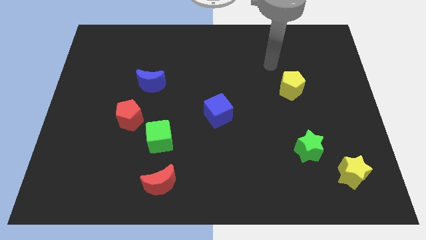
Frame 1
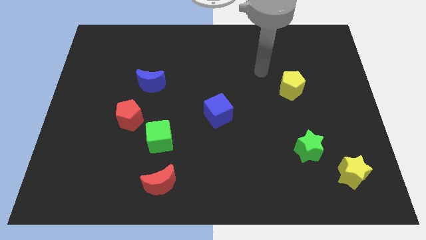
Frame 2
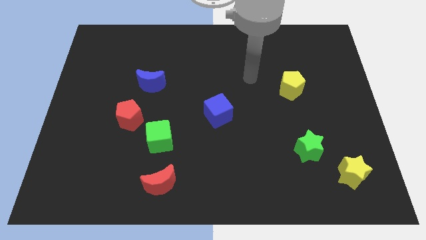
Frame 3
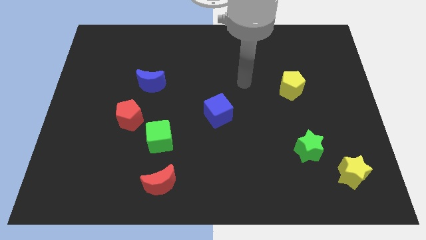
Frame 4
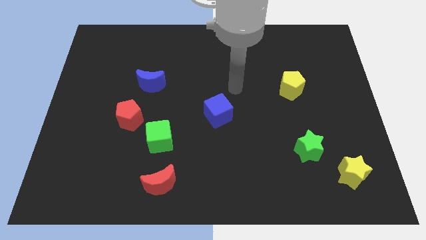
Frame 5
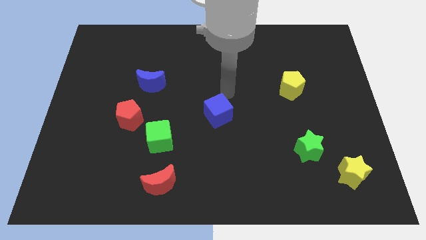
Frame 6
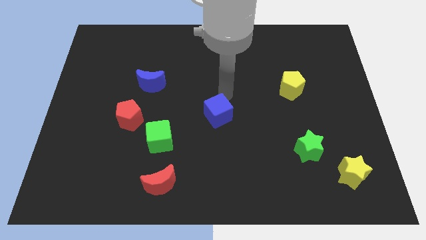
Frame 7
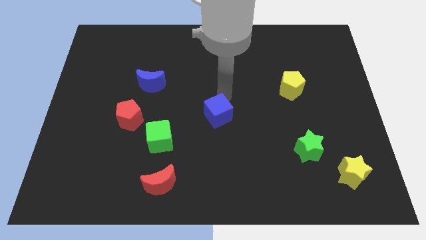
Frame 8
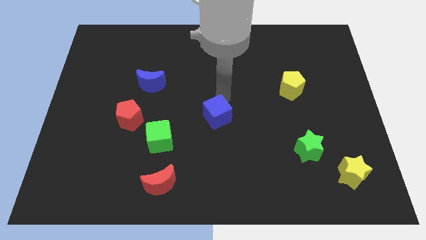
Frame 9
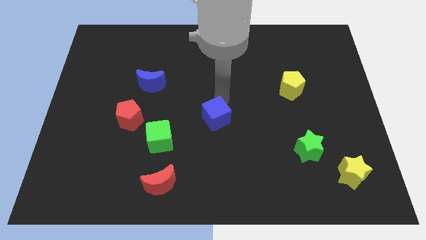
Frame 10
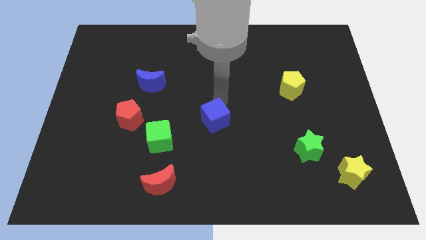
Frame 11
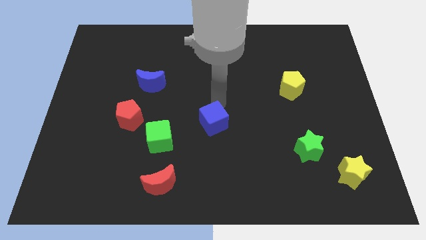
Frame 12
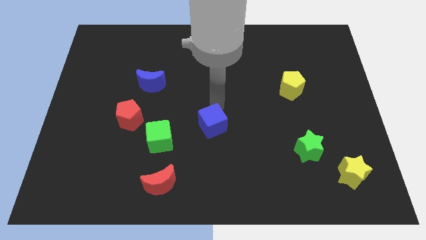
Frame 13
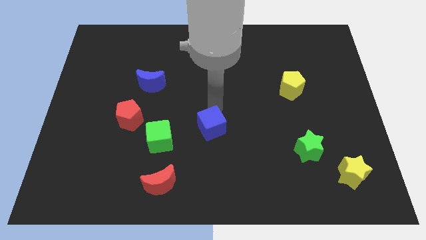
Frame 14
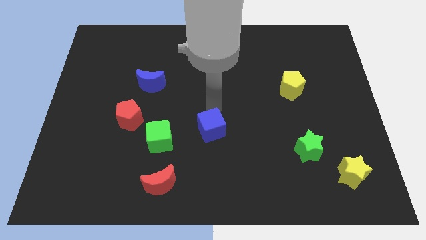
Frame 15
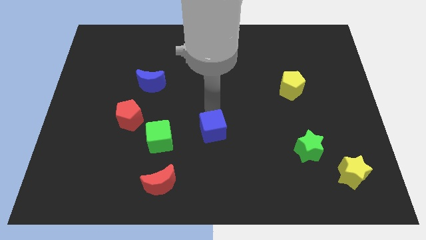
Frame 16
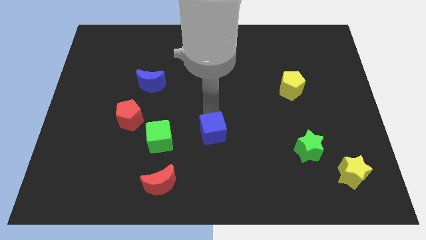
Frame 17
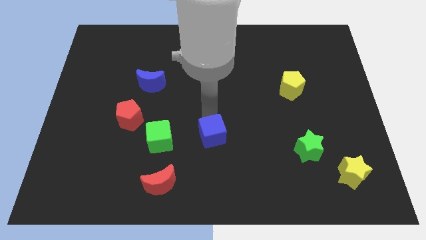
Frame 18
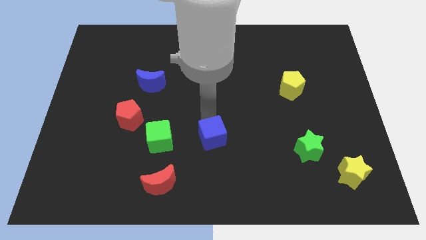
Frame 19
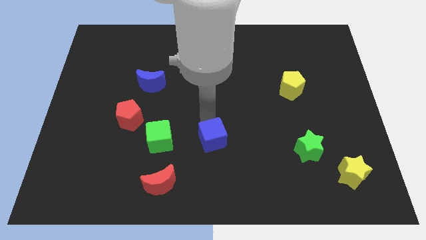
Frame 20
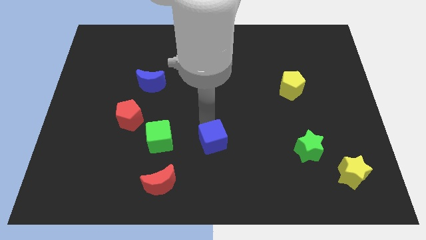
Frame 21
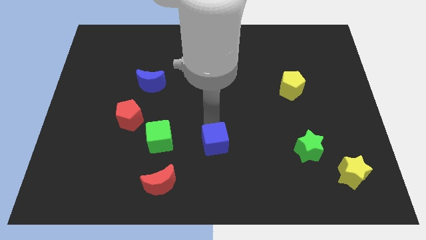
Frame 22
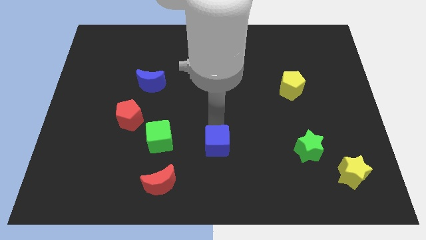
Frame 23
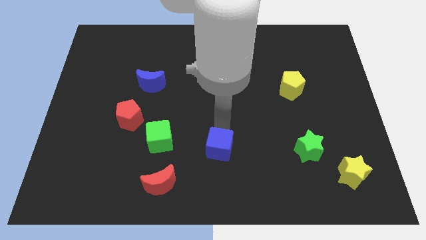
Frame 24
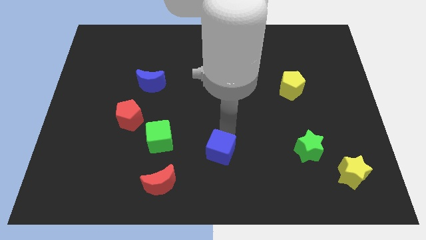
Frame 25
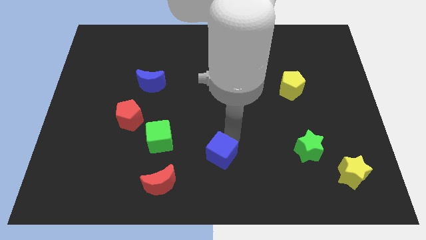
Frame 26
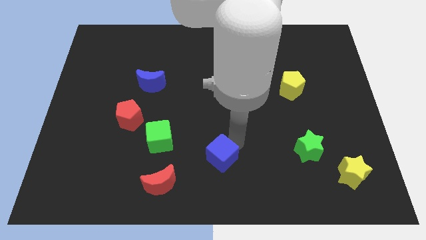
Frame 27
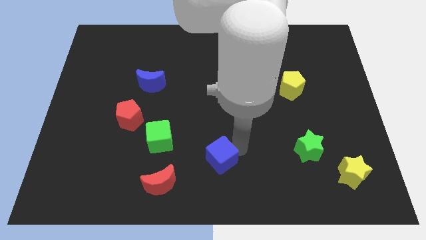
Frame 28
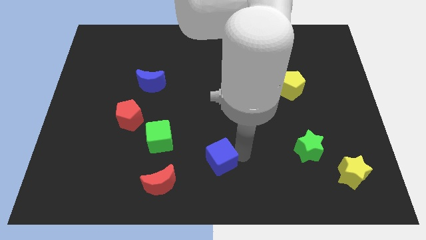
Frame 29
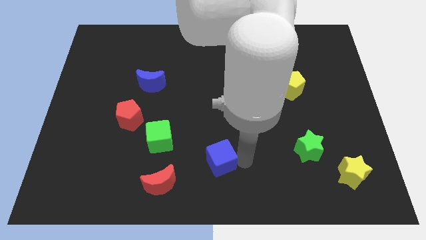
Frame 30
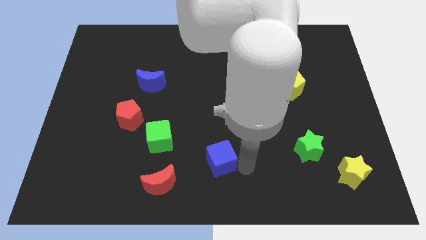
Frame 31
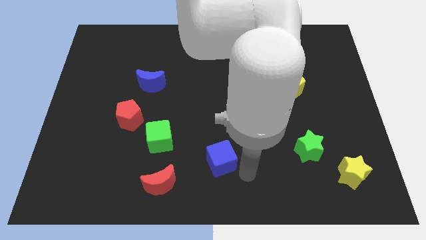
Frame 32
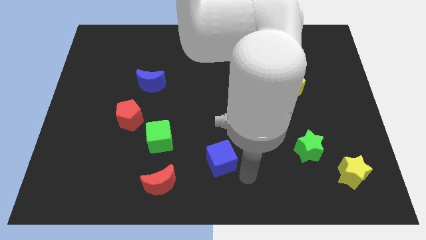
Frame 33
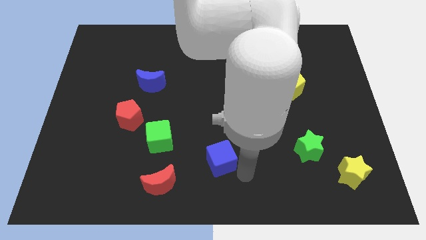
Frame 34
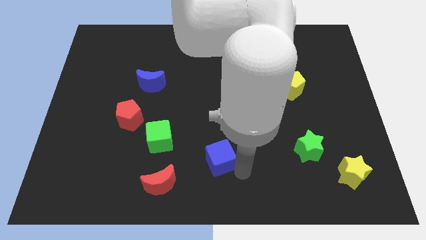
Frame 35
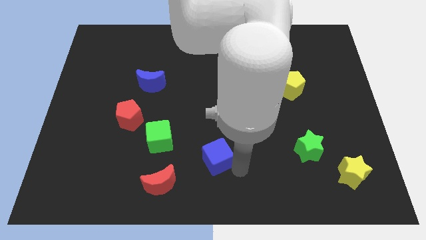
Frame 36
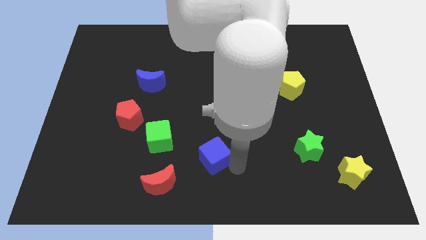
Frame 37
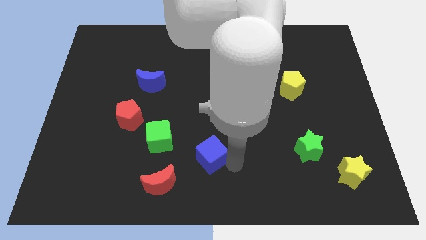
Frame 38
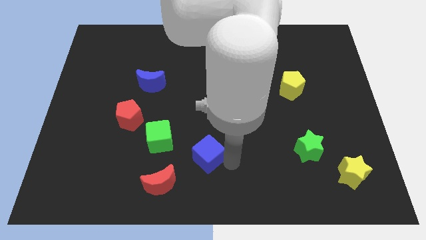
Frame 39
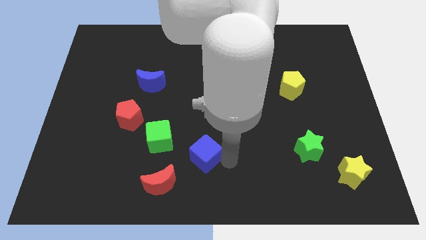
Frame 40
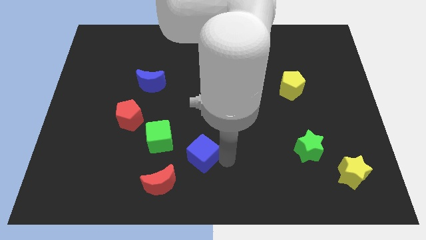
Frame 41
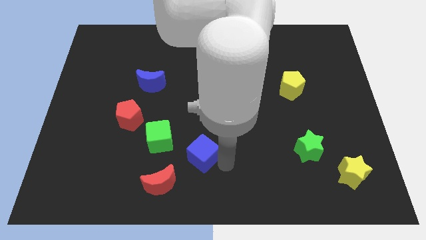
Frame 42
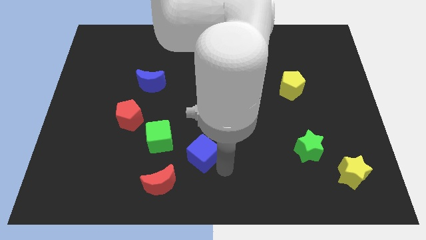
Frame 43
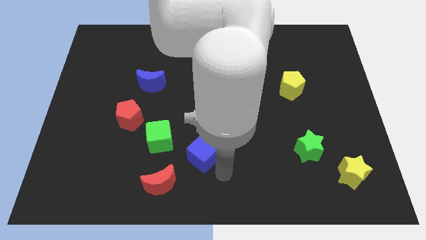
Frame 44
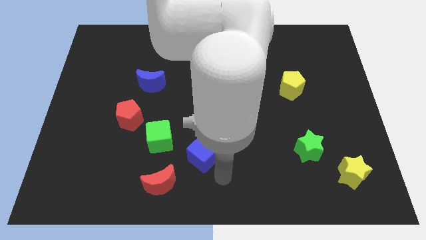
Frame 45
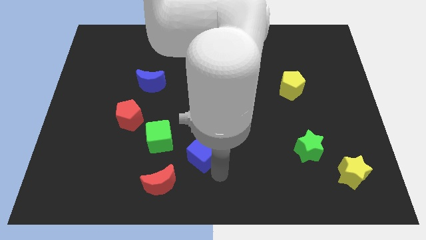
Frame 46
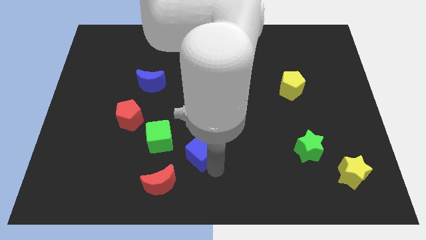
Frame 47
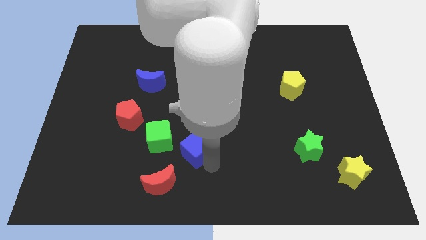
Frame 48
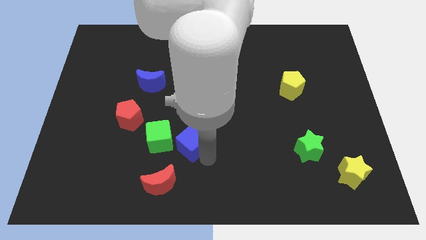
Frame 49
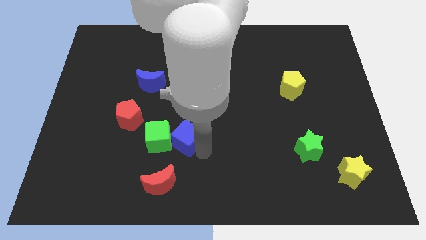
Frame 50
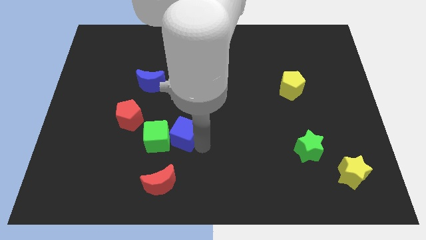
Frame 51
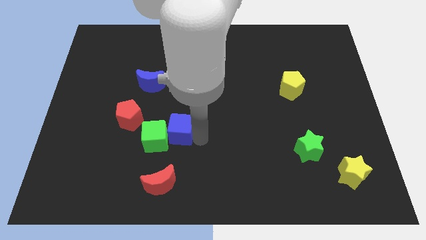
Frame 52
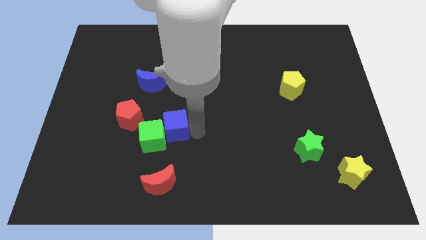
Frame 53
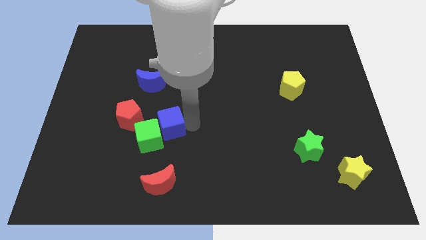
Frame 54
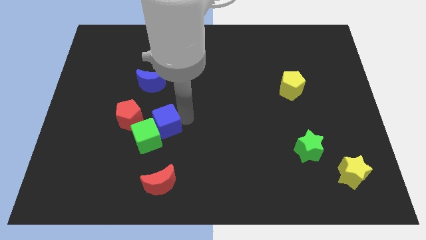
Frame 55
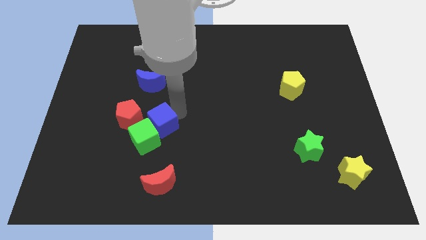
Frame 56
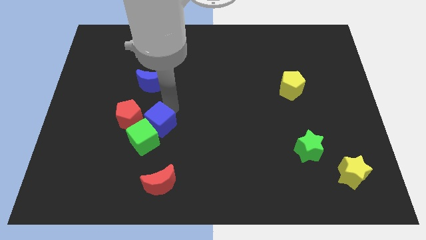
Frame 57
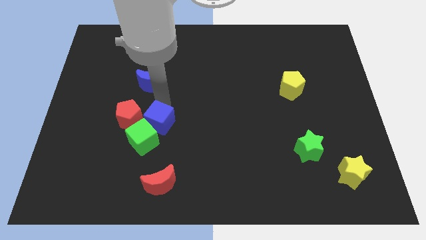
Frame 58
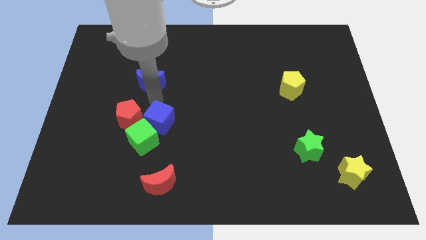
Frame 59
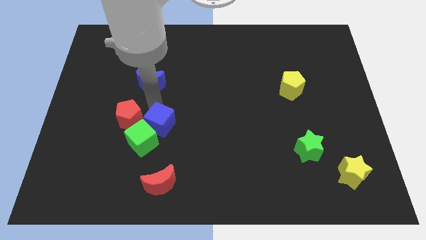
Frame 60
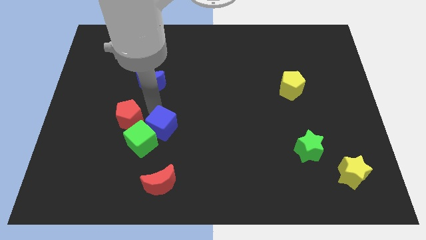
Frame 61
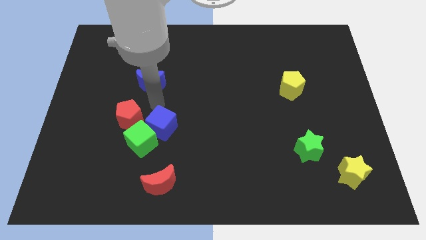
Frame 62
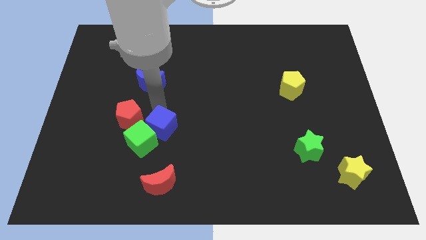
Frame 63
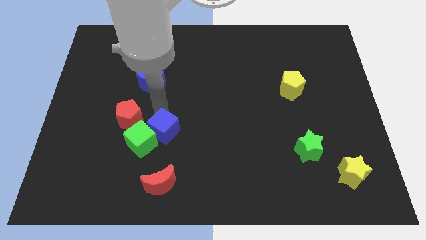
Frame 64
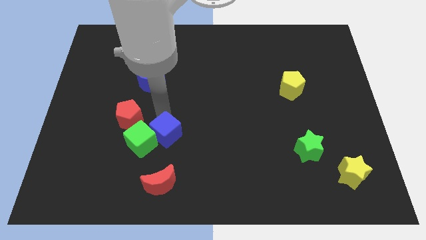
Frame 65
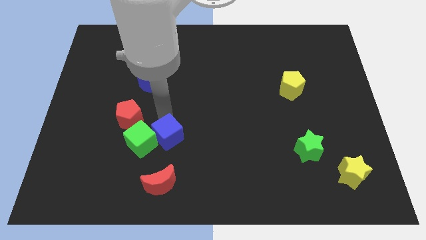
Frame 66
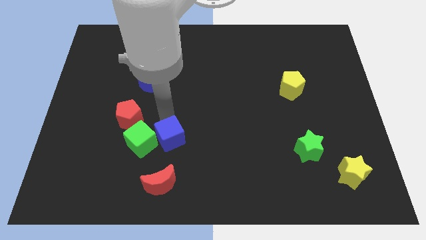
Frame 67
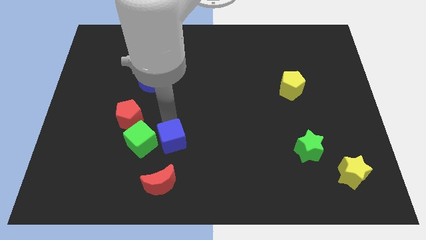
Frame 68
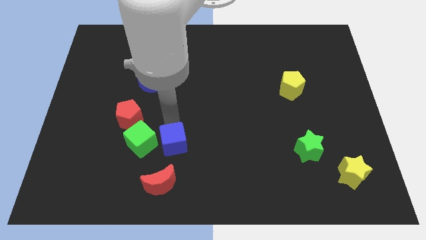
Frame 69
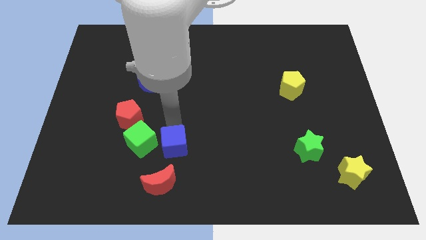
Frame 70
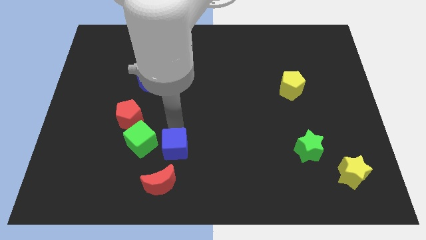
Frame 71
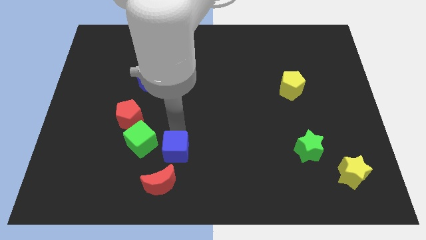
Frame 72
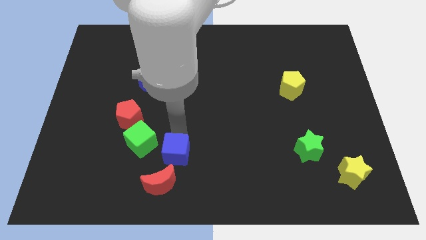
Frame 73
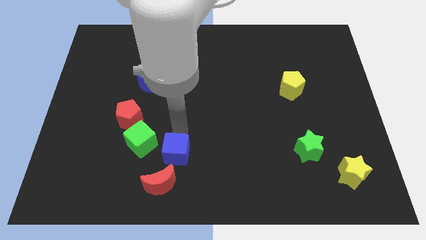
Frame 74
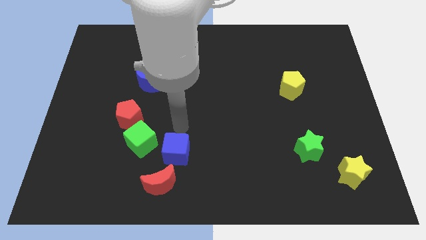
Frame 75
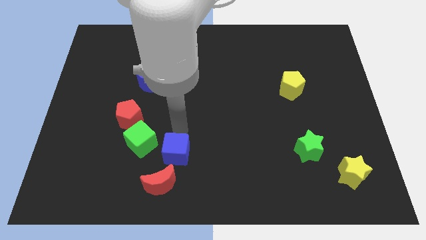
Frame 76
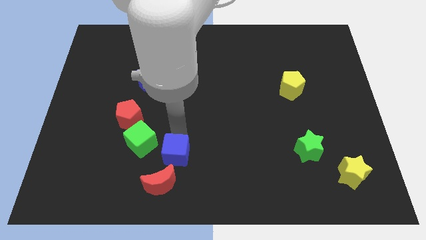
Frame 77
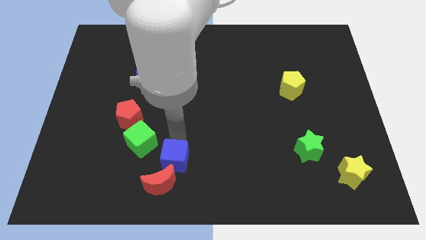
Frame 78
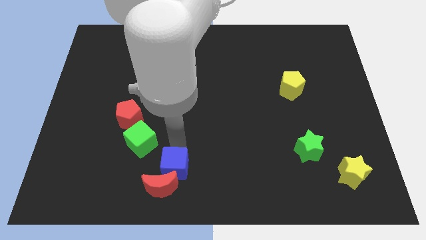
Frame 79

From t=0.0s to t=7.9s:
put the blue cube close to the red moon
